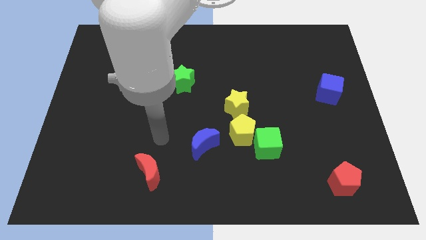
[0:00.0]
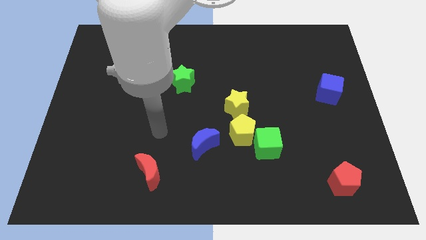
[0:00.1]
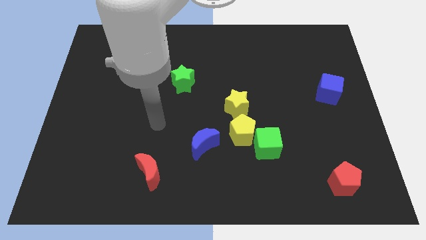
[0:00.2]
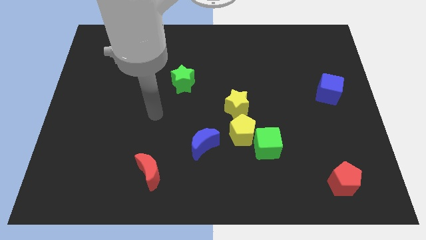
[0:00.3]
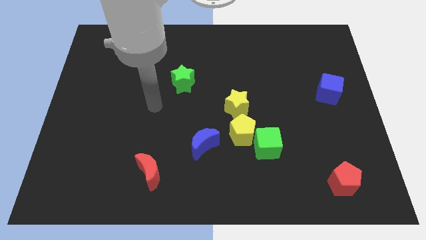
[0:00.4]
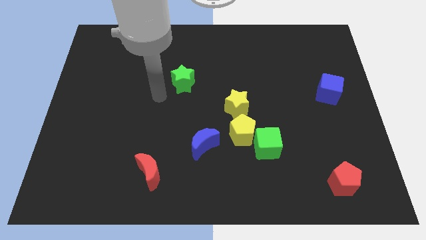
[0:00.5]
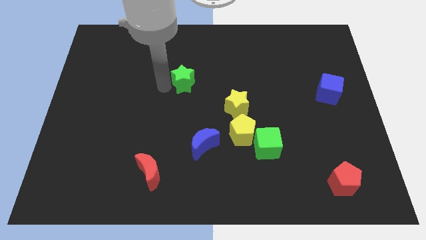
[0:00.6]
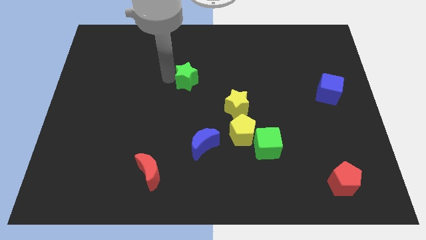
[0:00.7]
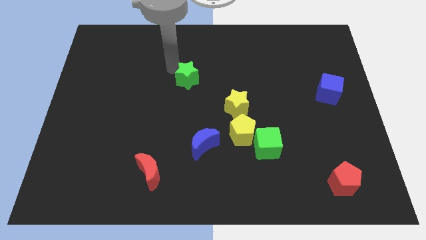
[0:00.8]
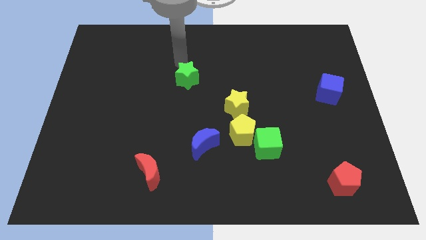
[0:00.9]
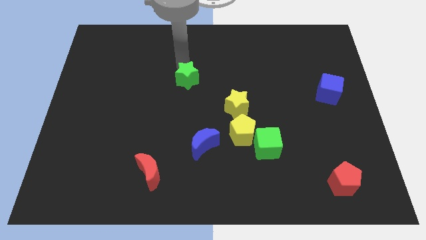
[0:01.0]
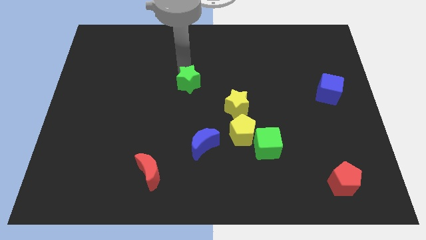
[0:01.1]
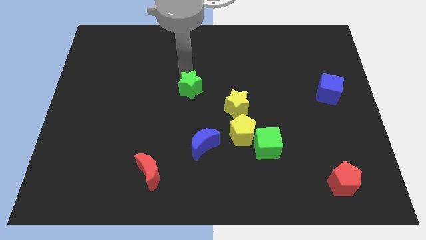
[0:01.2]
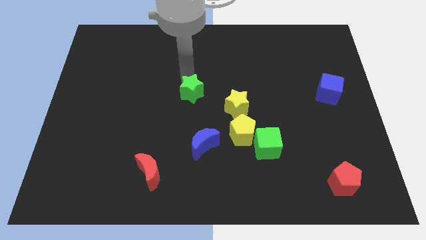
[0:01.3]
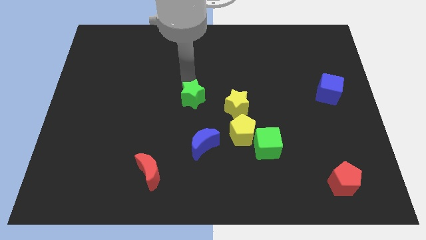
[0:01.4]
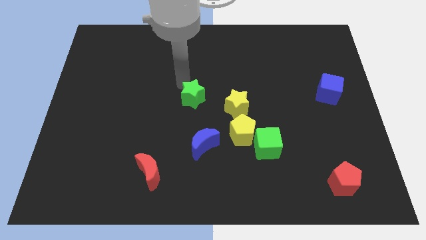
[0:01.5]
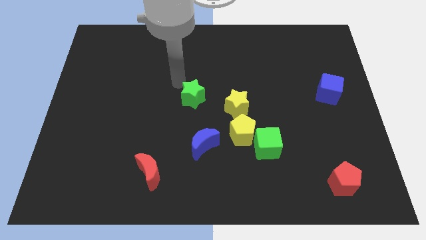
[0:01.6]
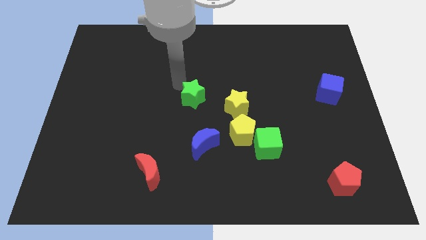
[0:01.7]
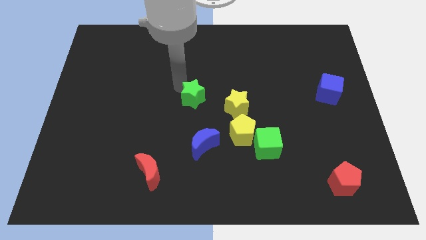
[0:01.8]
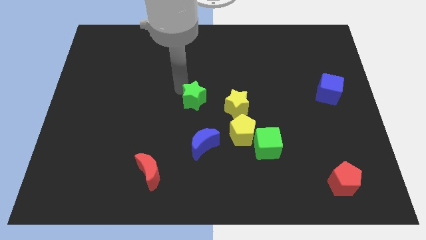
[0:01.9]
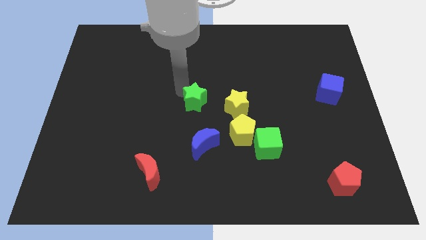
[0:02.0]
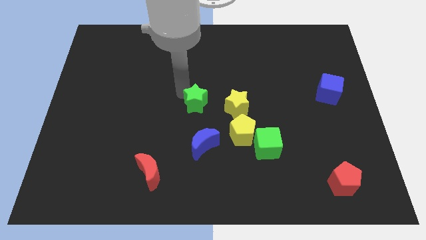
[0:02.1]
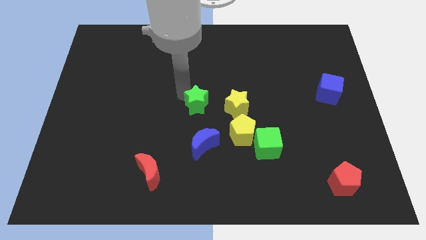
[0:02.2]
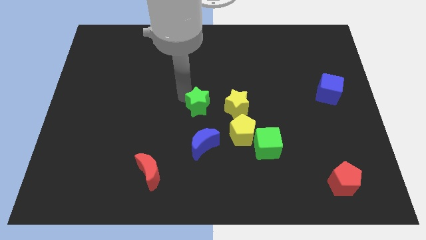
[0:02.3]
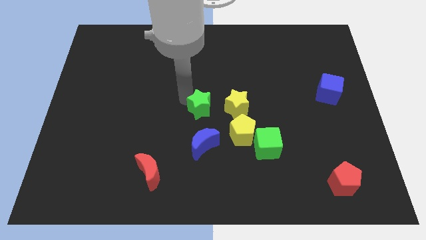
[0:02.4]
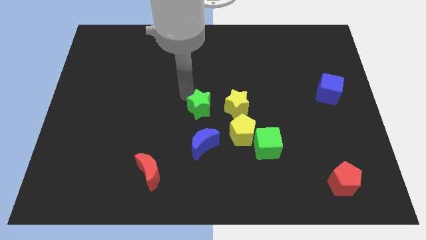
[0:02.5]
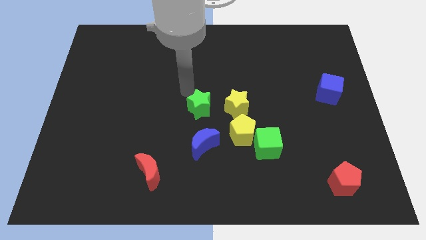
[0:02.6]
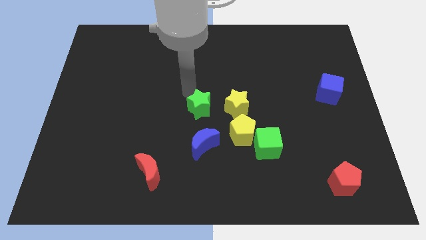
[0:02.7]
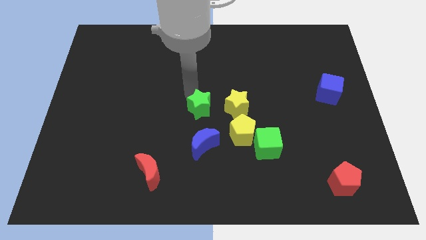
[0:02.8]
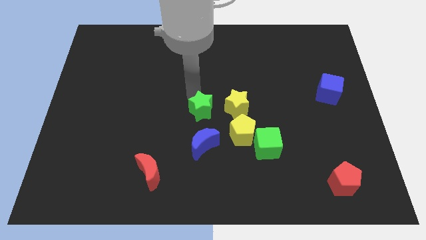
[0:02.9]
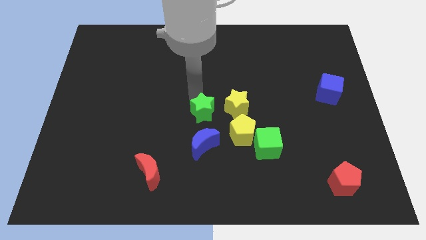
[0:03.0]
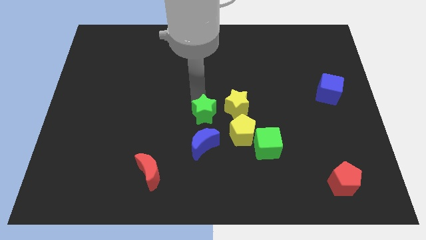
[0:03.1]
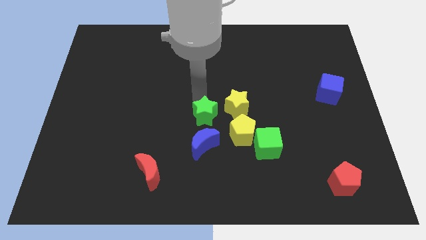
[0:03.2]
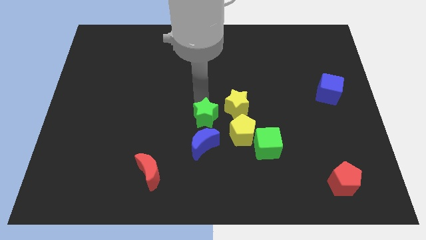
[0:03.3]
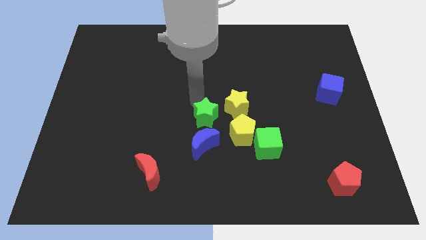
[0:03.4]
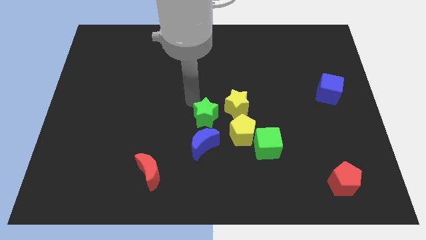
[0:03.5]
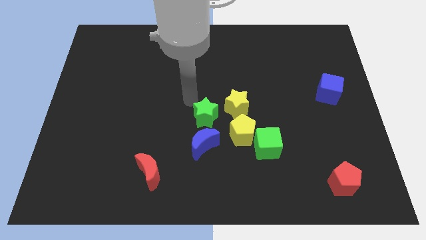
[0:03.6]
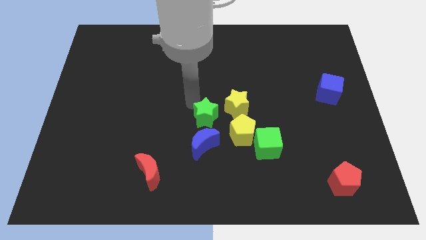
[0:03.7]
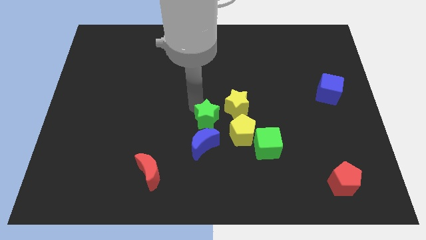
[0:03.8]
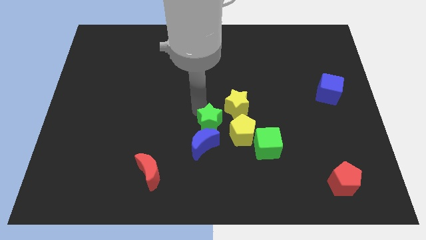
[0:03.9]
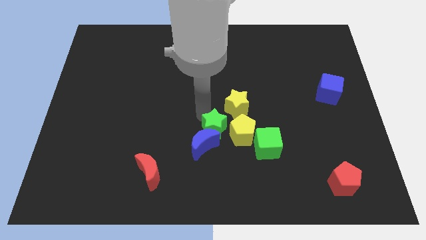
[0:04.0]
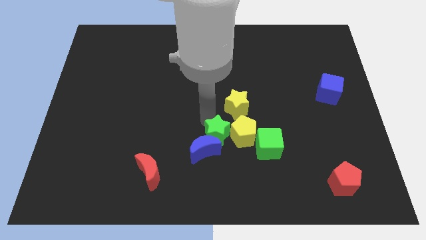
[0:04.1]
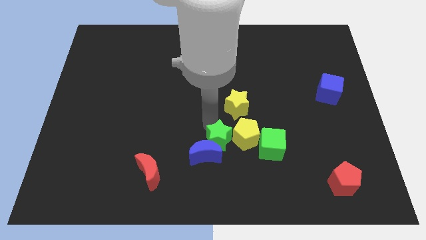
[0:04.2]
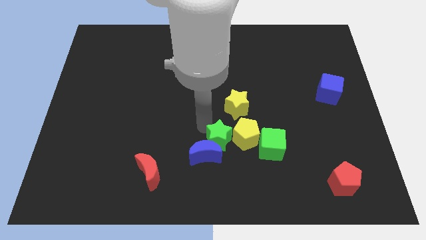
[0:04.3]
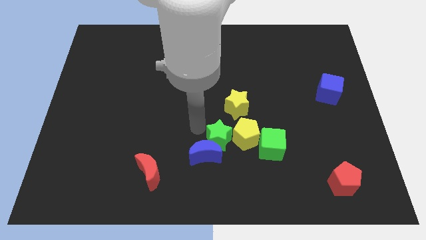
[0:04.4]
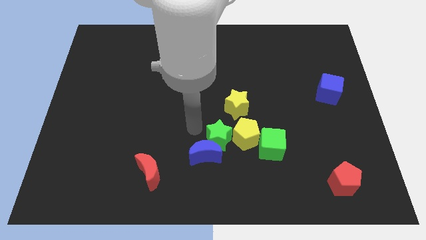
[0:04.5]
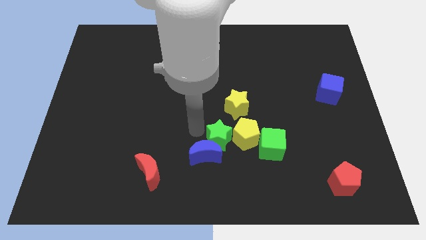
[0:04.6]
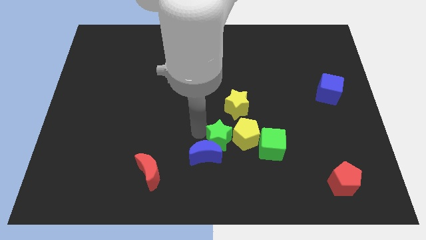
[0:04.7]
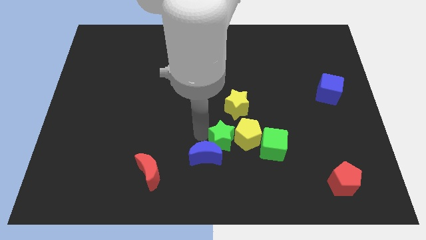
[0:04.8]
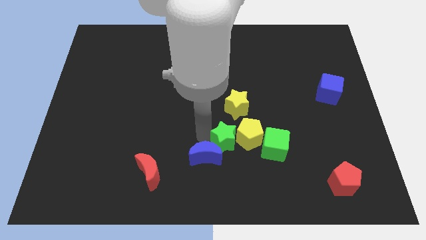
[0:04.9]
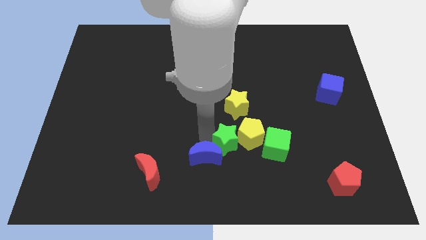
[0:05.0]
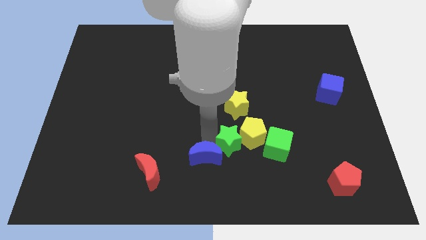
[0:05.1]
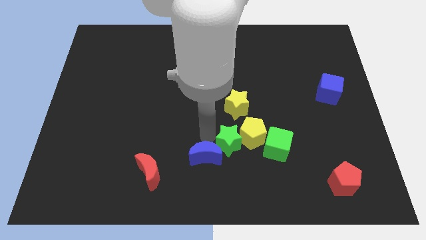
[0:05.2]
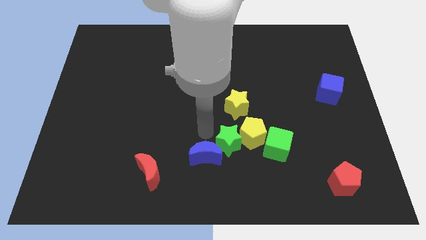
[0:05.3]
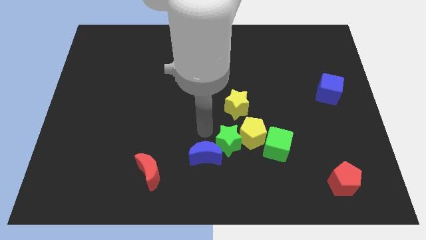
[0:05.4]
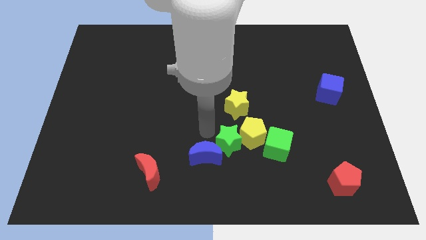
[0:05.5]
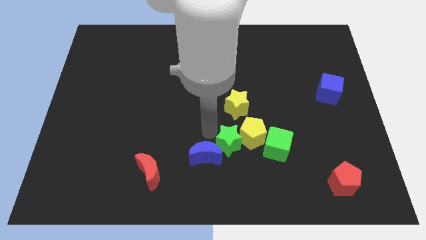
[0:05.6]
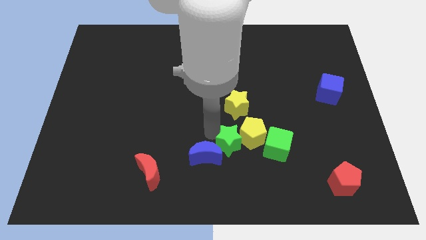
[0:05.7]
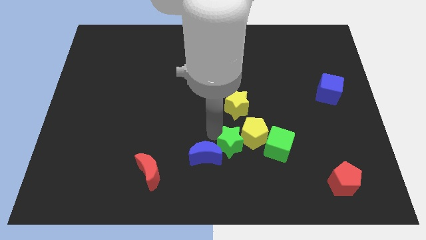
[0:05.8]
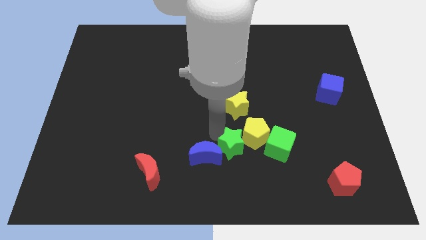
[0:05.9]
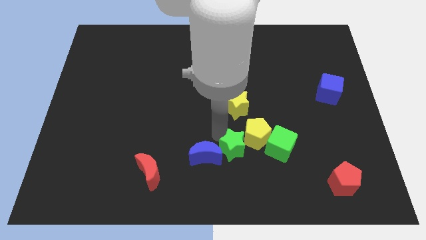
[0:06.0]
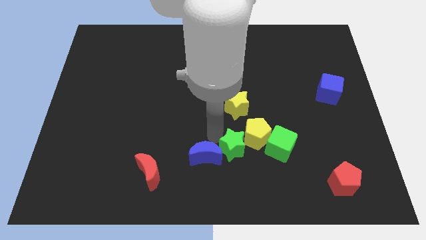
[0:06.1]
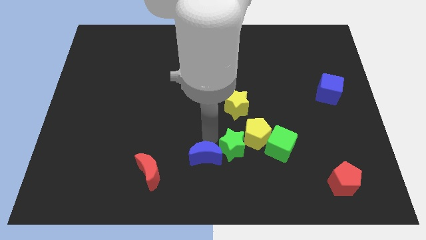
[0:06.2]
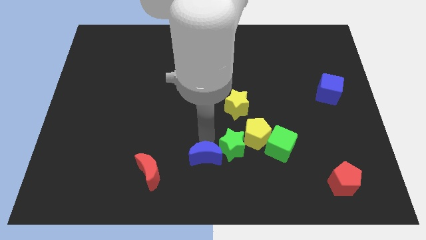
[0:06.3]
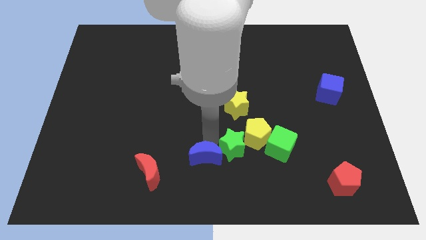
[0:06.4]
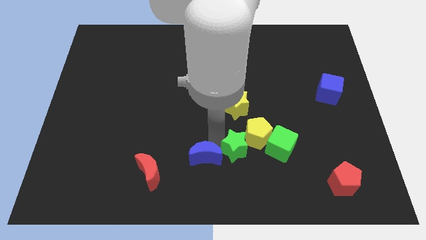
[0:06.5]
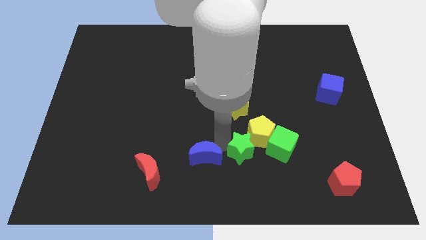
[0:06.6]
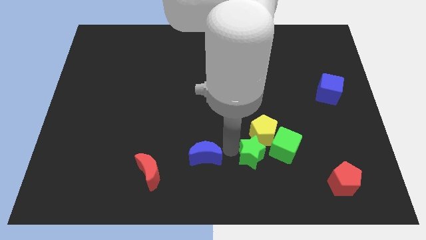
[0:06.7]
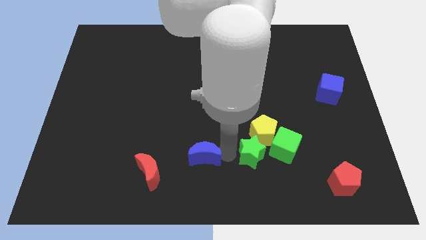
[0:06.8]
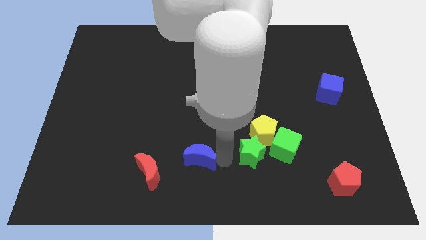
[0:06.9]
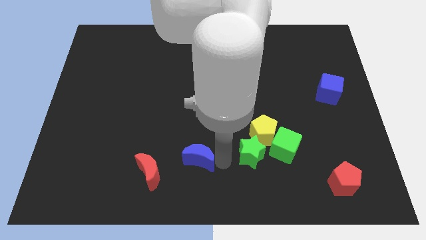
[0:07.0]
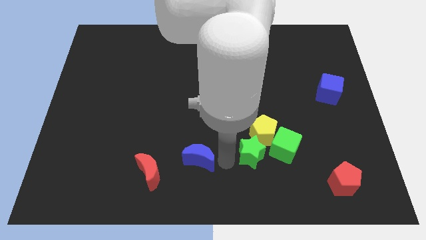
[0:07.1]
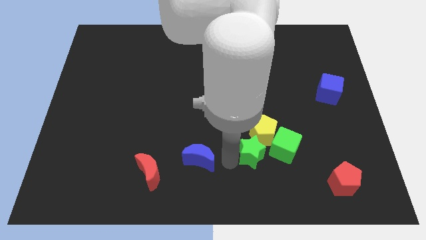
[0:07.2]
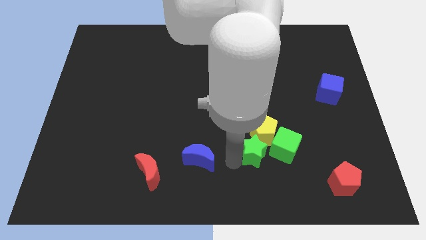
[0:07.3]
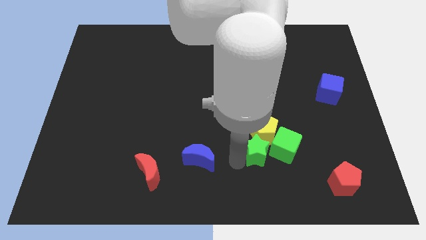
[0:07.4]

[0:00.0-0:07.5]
slide the green star towards the green cube
